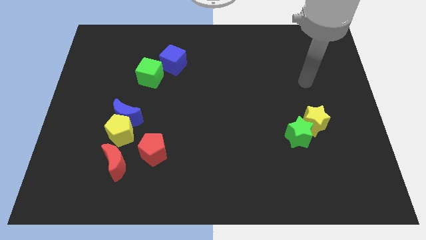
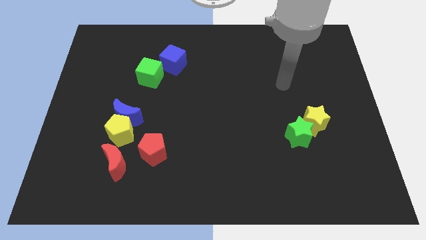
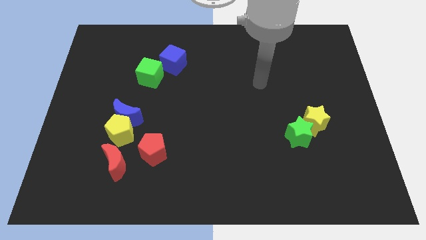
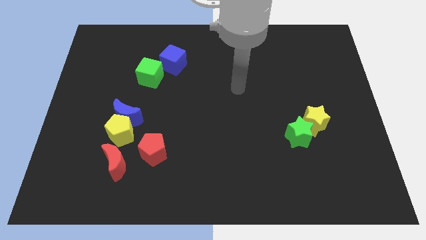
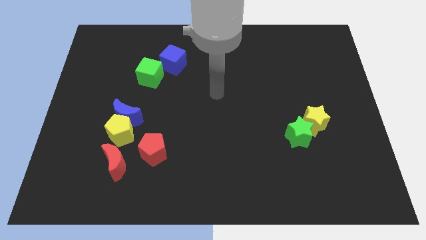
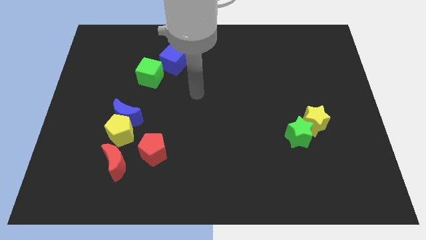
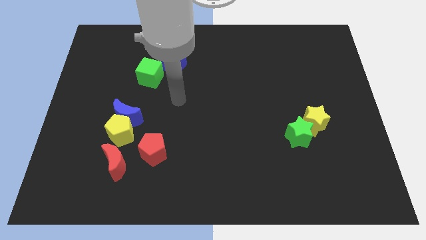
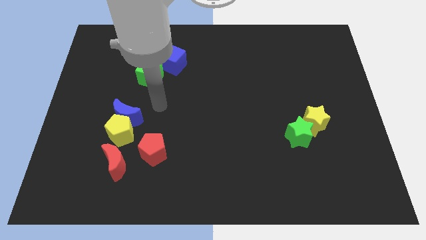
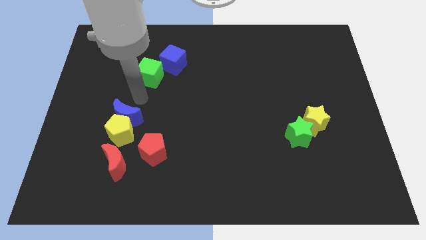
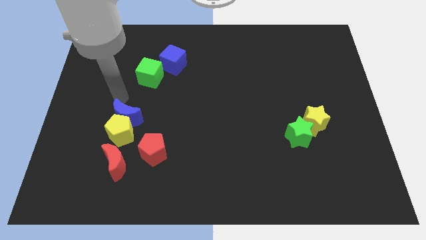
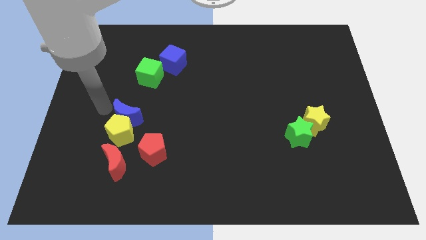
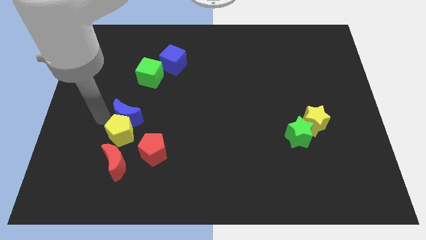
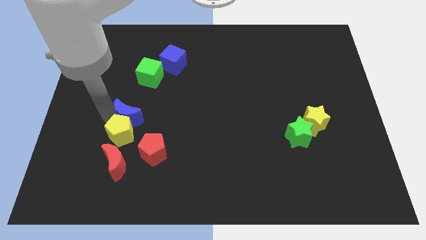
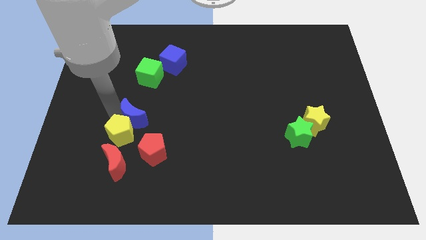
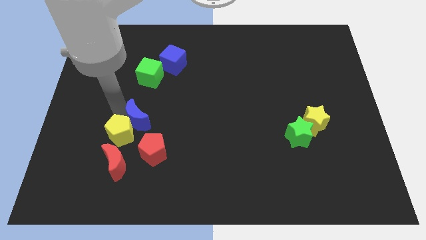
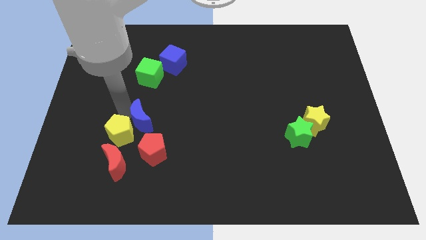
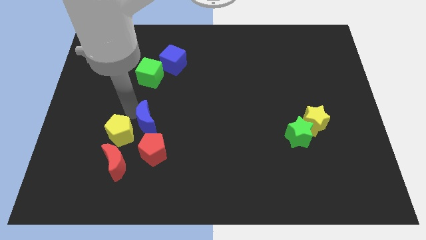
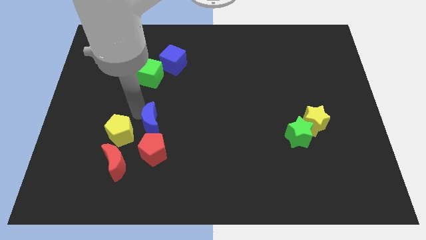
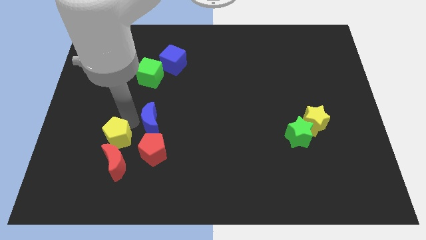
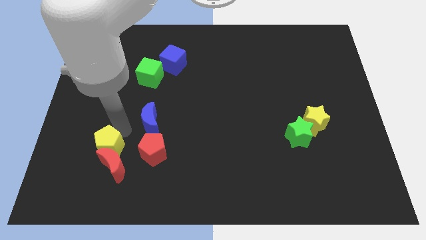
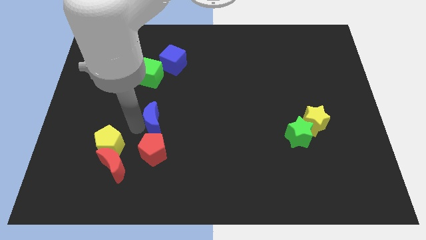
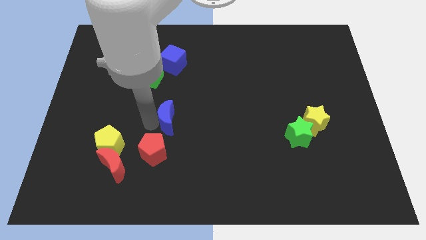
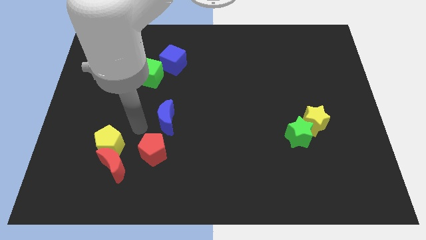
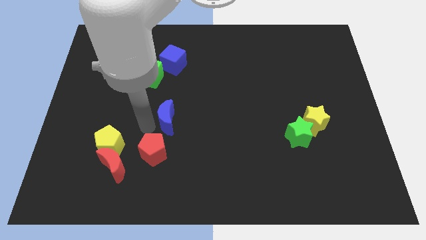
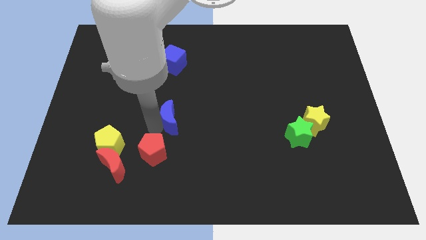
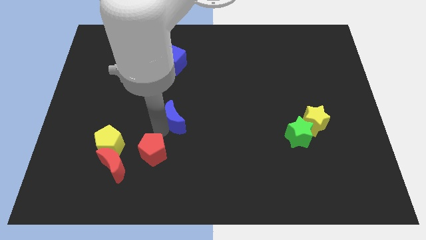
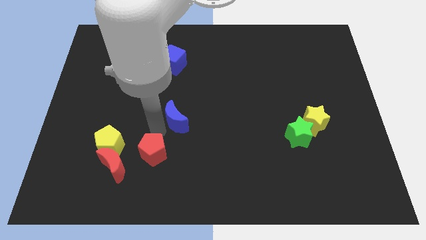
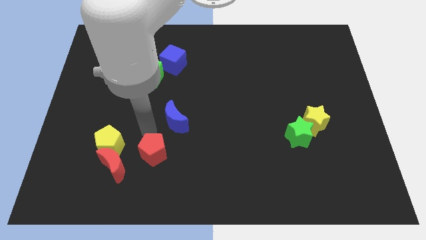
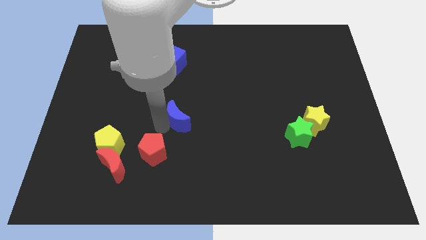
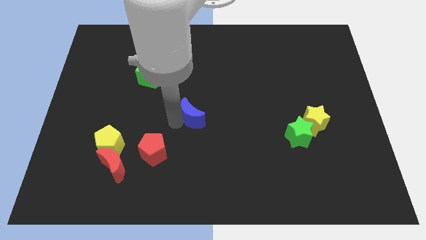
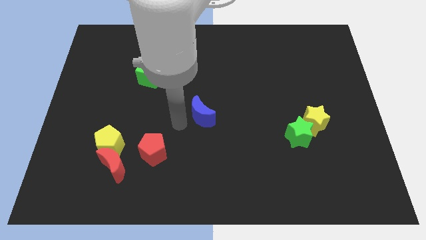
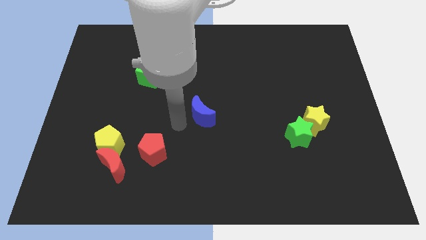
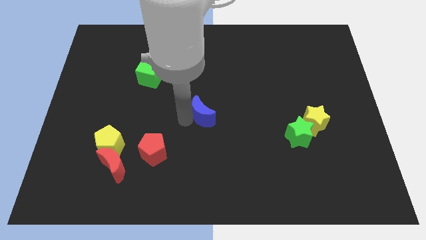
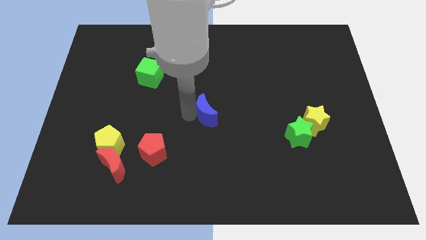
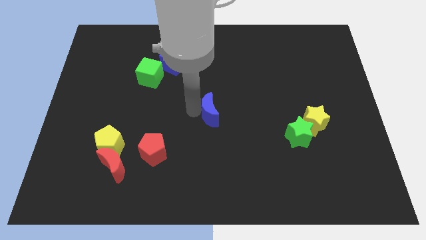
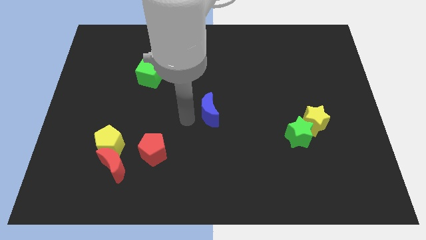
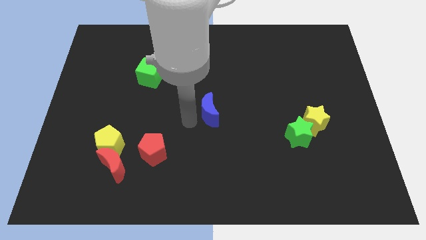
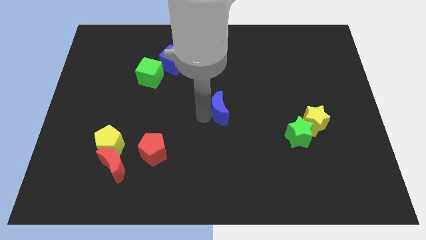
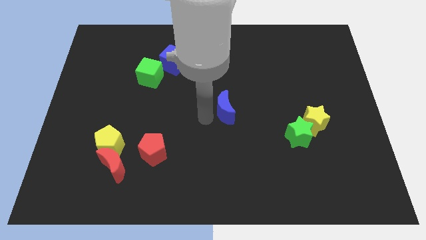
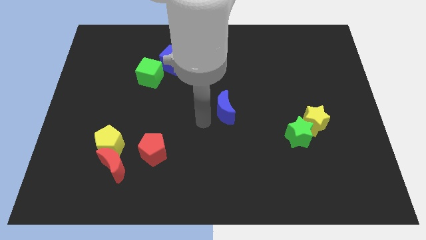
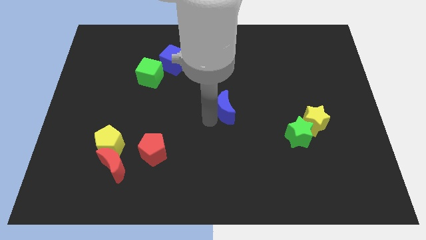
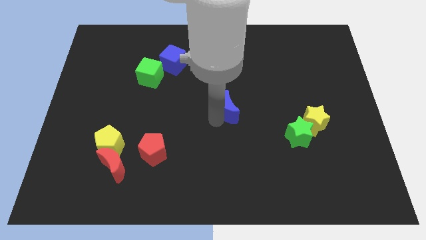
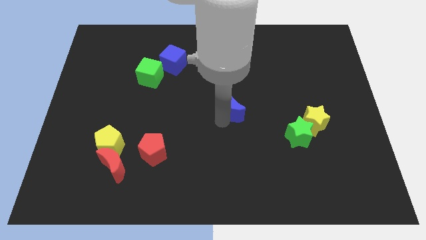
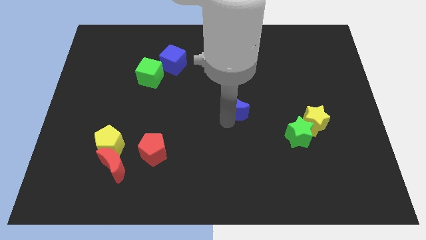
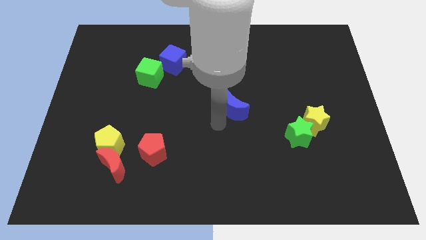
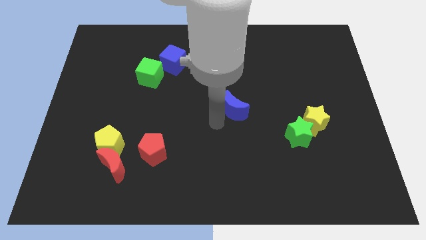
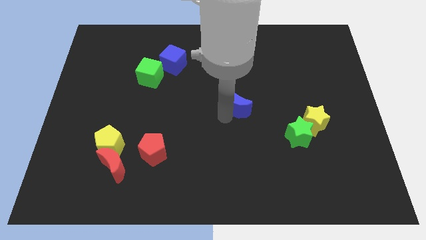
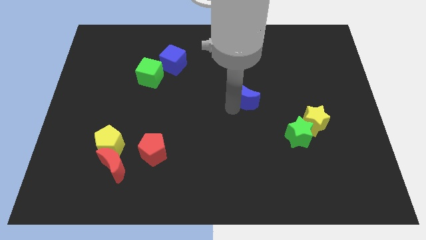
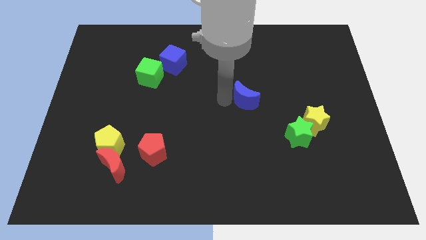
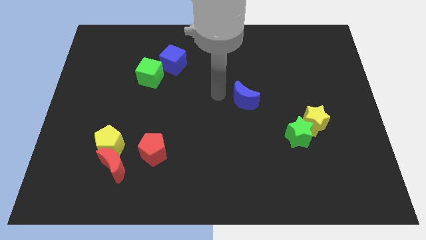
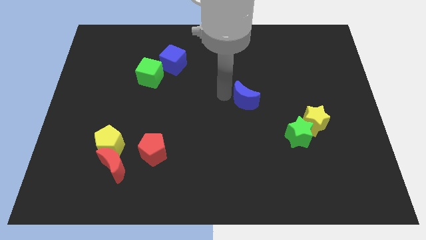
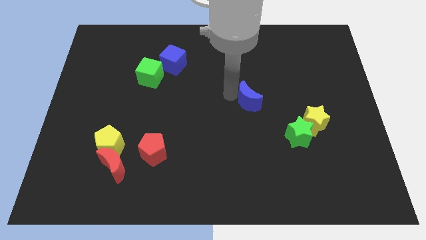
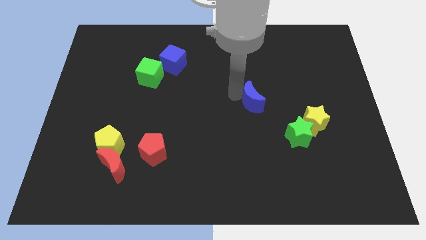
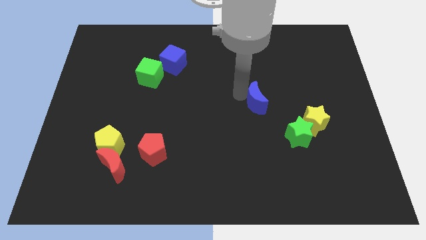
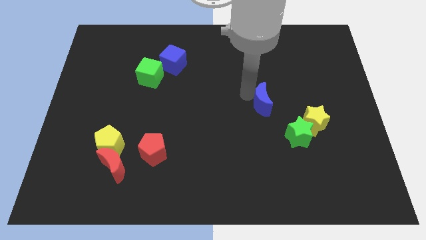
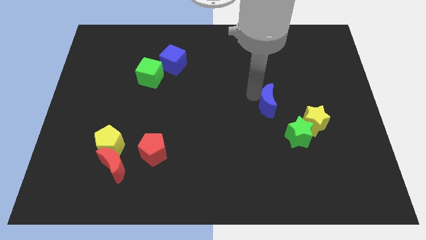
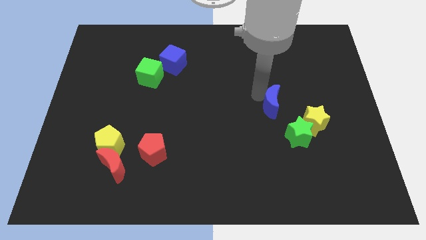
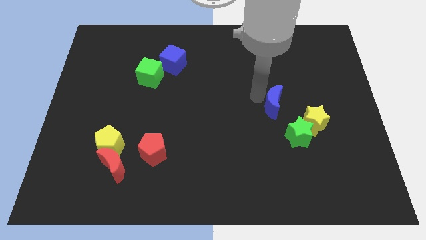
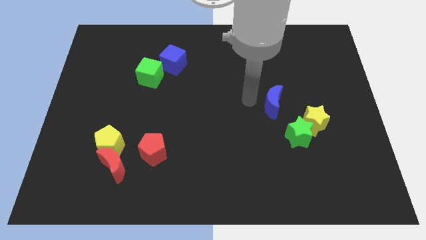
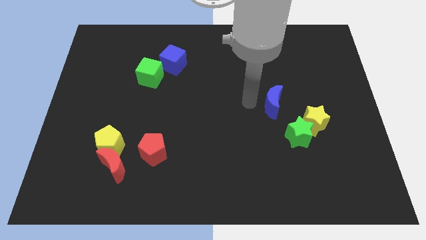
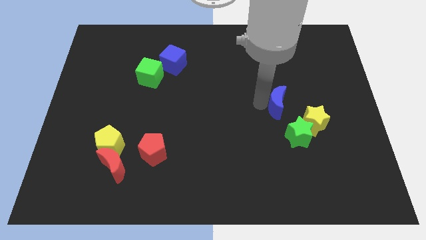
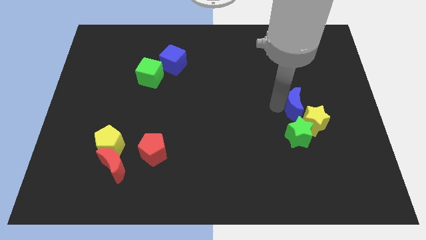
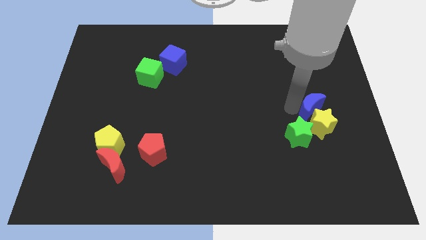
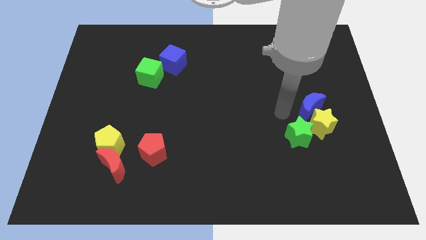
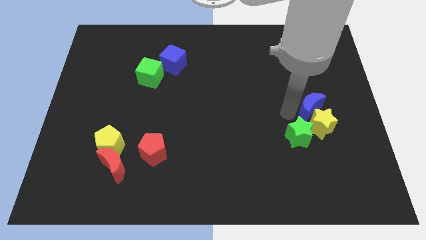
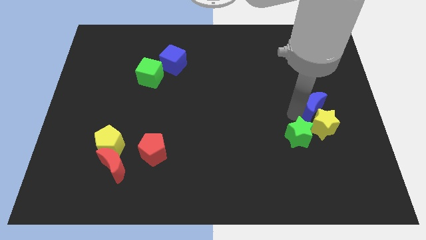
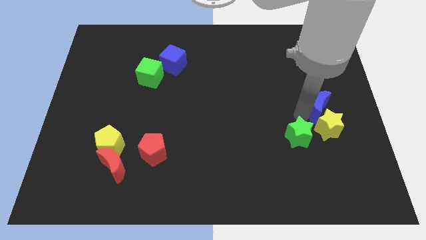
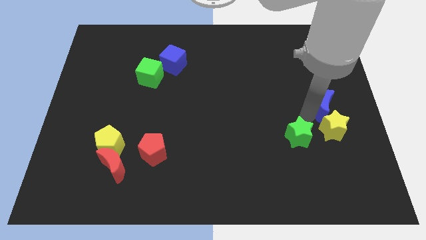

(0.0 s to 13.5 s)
push the blue moon to the center right
